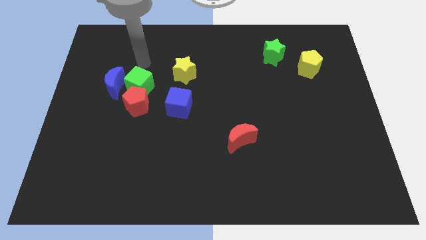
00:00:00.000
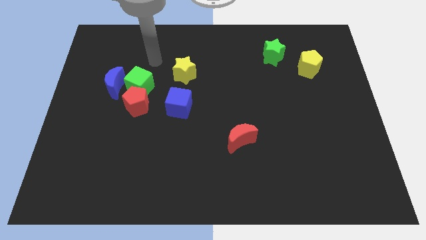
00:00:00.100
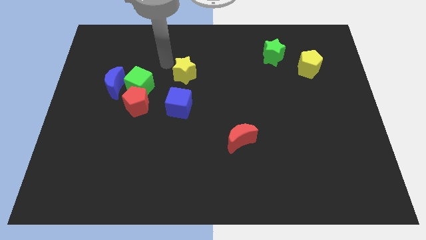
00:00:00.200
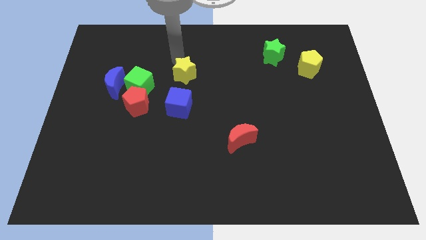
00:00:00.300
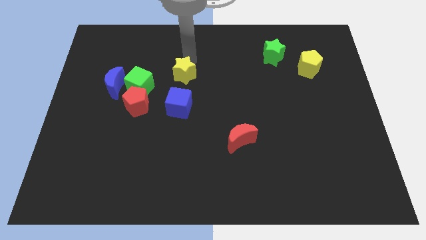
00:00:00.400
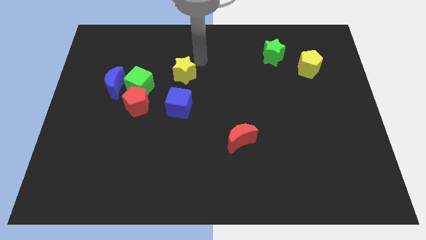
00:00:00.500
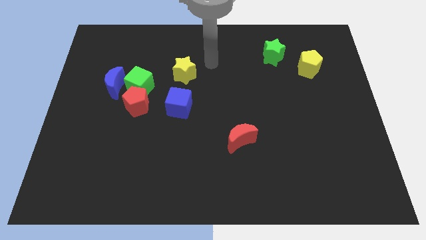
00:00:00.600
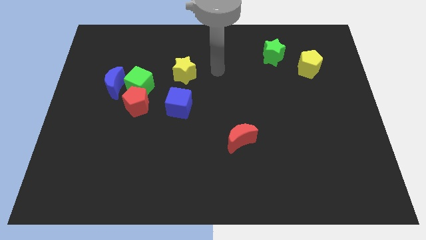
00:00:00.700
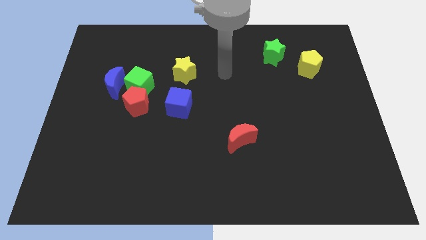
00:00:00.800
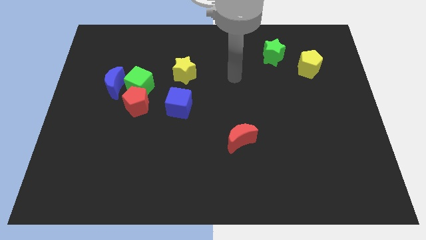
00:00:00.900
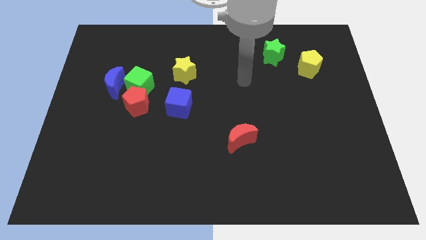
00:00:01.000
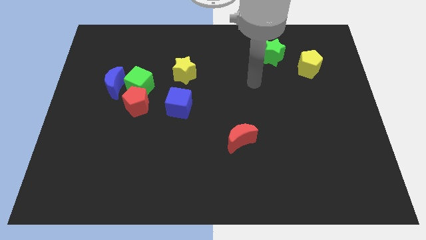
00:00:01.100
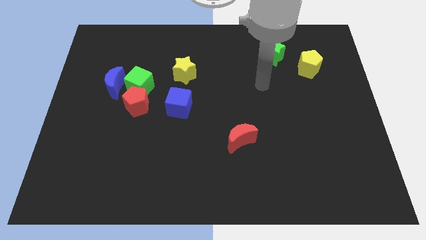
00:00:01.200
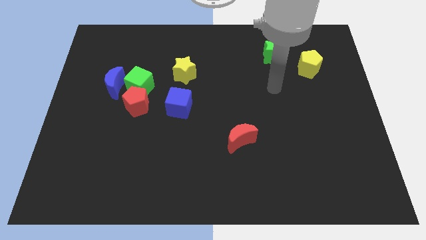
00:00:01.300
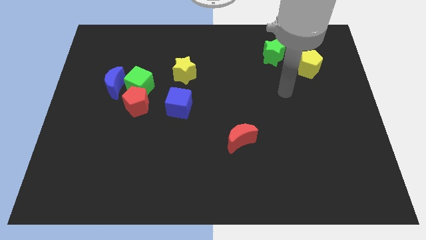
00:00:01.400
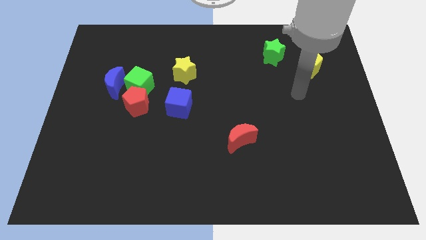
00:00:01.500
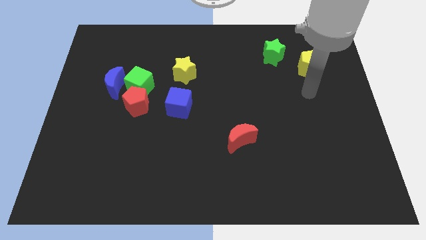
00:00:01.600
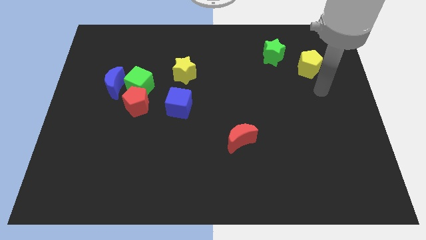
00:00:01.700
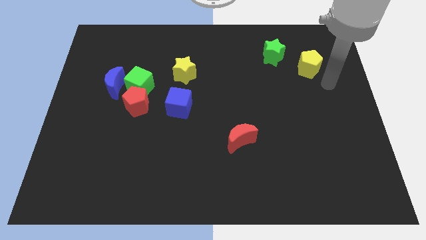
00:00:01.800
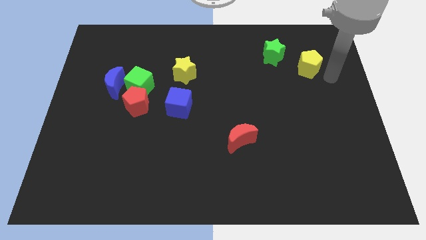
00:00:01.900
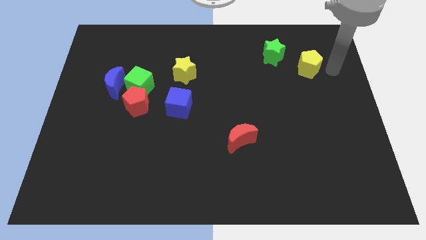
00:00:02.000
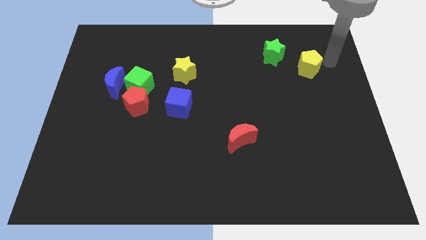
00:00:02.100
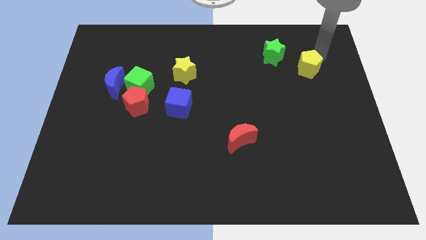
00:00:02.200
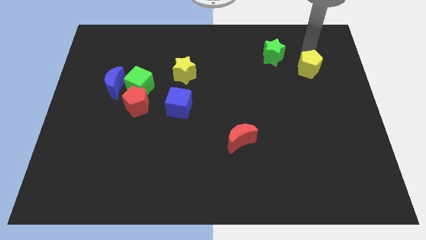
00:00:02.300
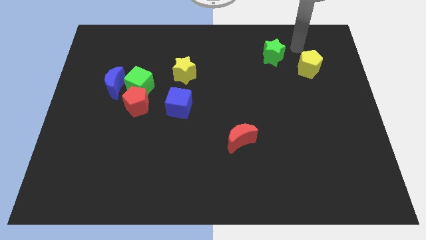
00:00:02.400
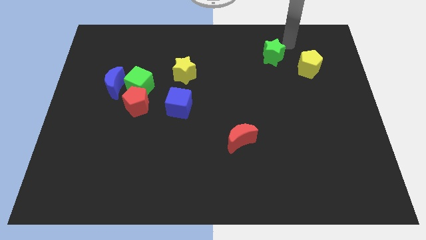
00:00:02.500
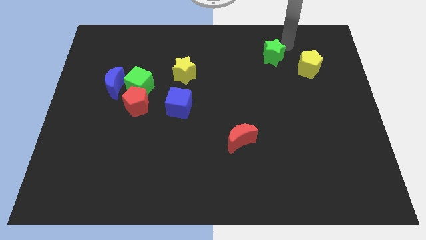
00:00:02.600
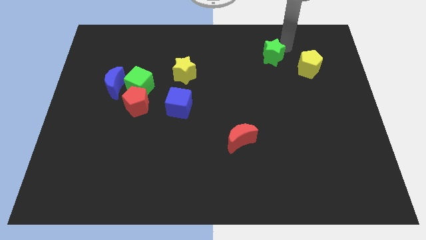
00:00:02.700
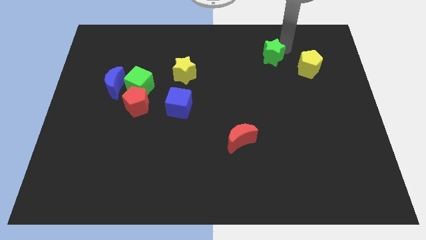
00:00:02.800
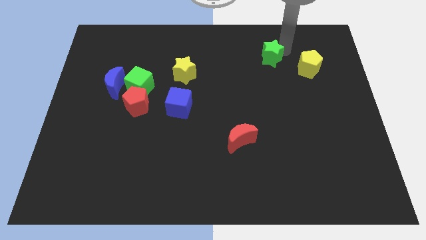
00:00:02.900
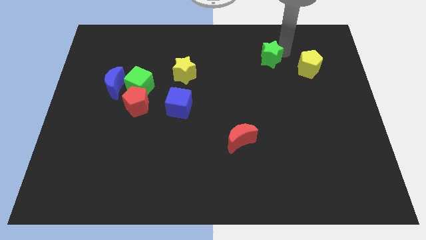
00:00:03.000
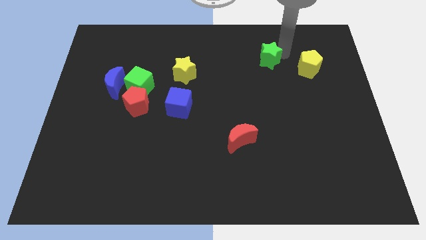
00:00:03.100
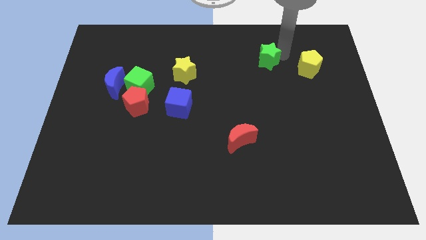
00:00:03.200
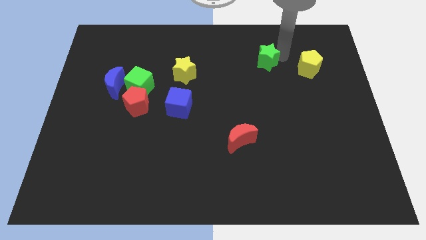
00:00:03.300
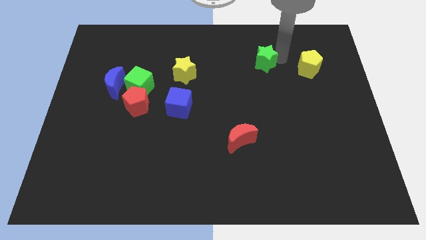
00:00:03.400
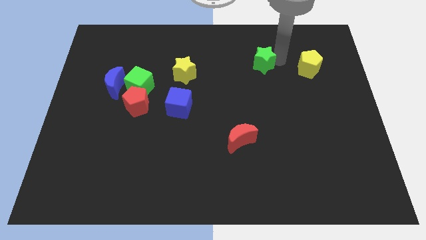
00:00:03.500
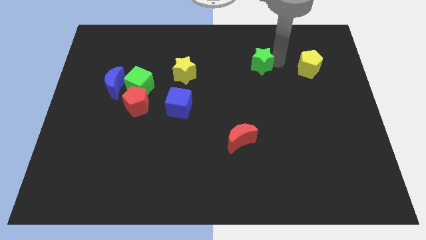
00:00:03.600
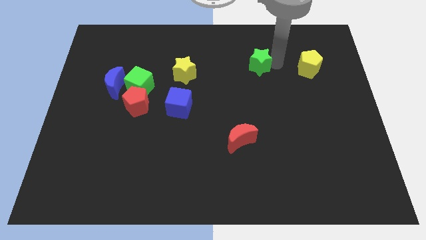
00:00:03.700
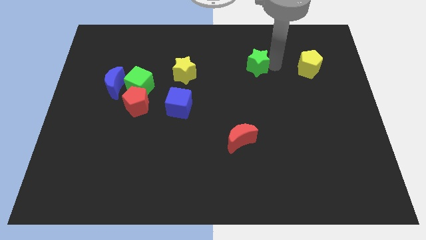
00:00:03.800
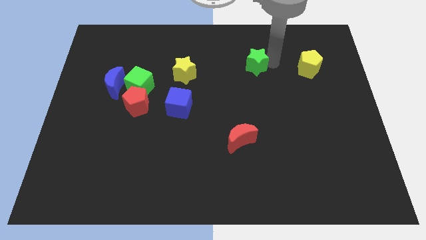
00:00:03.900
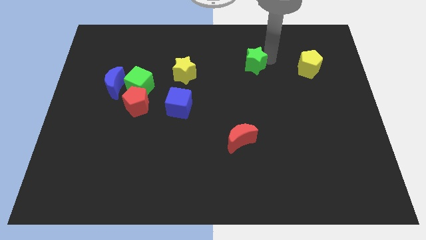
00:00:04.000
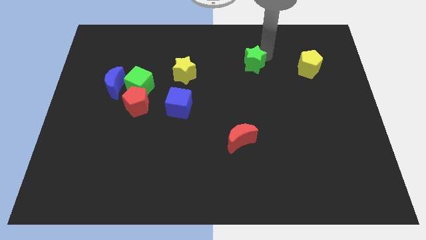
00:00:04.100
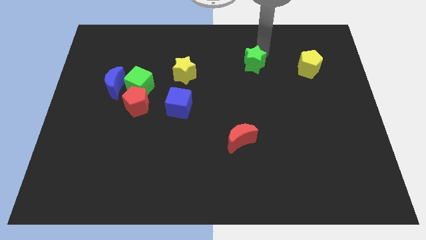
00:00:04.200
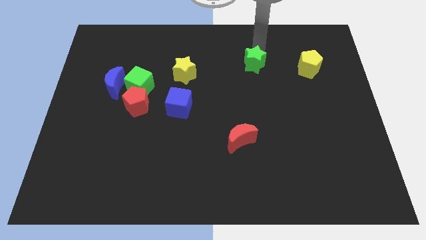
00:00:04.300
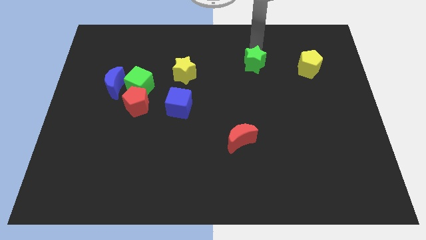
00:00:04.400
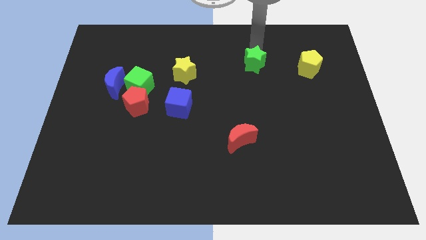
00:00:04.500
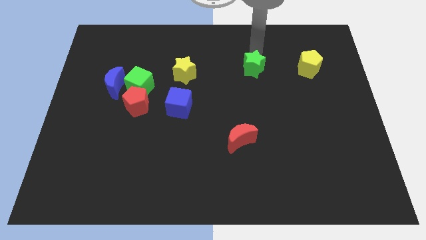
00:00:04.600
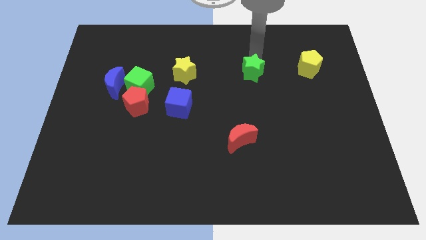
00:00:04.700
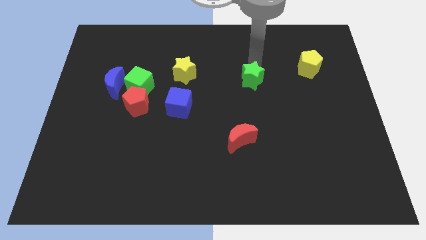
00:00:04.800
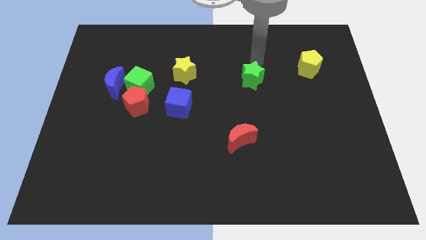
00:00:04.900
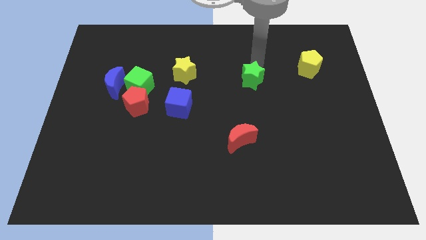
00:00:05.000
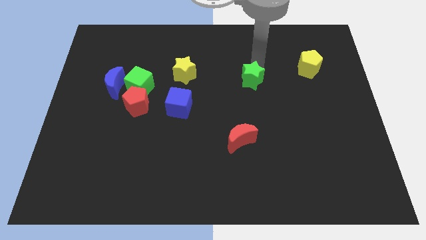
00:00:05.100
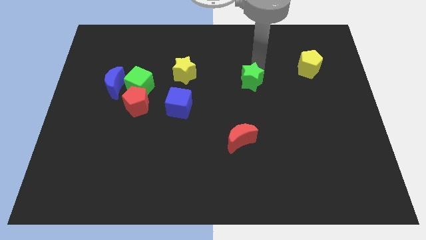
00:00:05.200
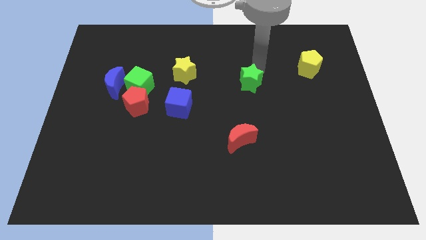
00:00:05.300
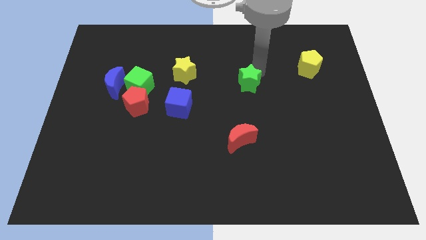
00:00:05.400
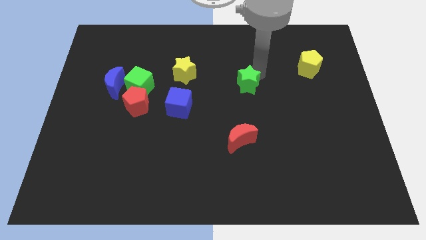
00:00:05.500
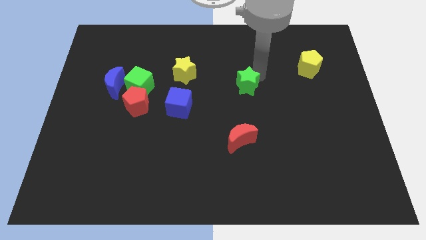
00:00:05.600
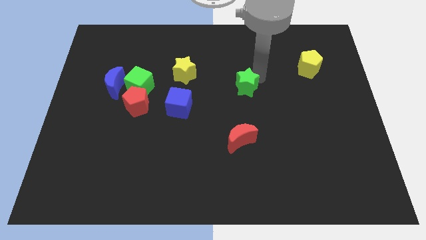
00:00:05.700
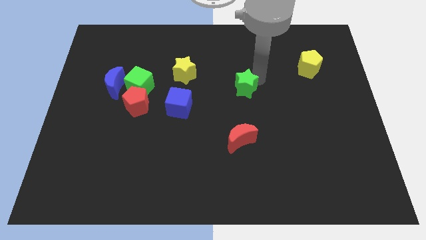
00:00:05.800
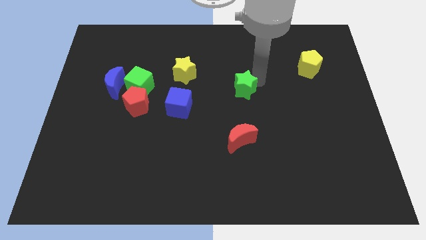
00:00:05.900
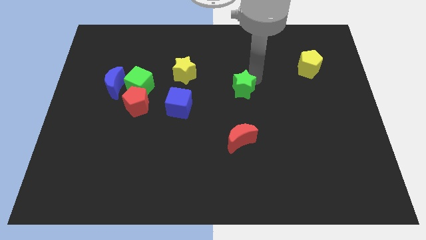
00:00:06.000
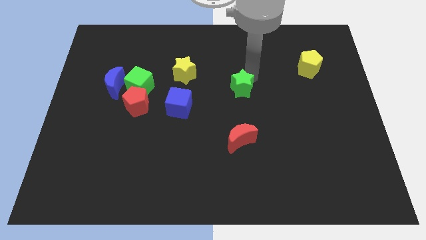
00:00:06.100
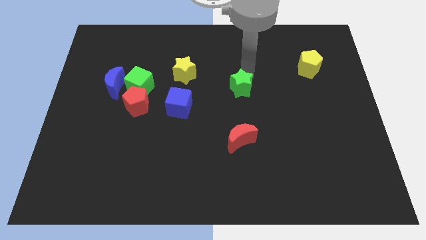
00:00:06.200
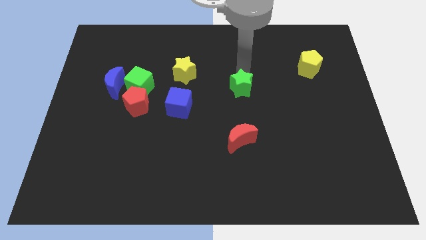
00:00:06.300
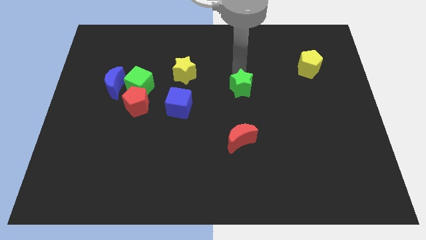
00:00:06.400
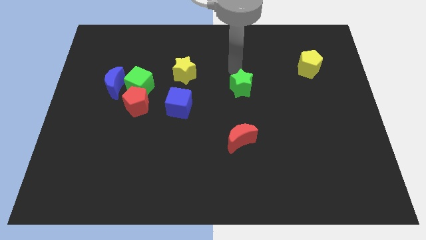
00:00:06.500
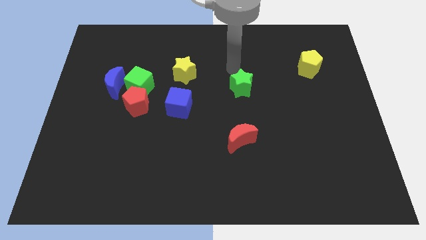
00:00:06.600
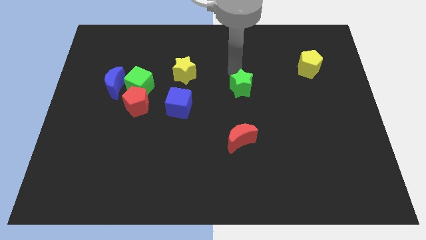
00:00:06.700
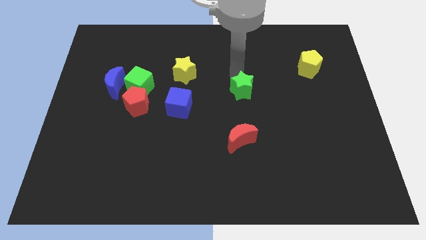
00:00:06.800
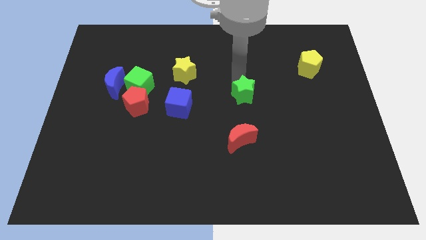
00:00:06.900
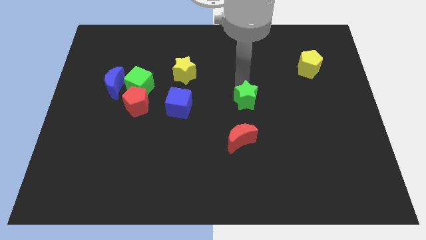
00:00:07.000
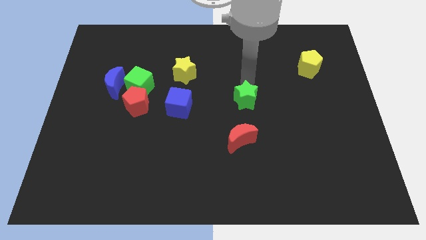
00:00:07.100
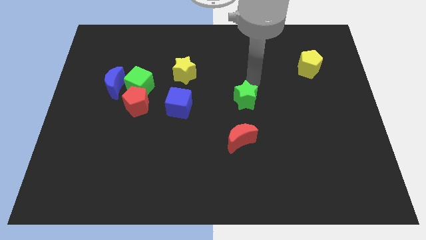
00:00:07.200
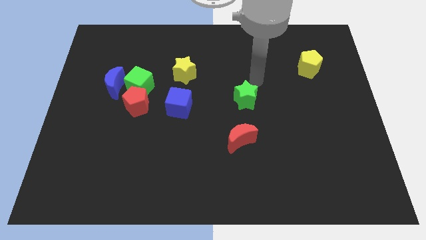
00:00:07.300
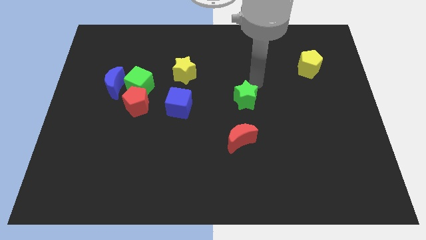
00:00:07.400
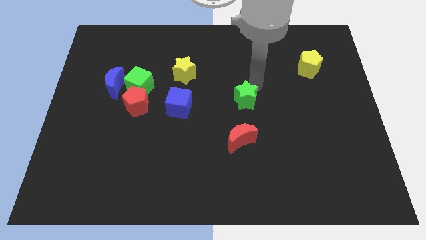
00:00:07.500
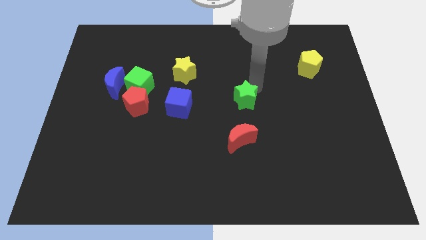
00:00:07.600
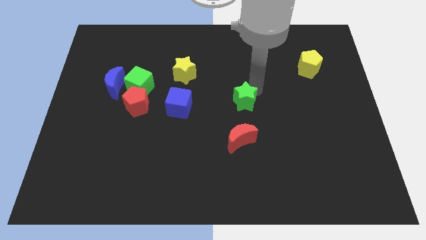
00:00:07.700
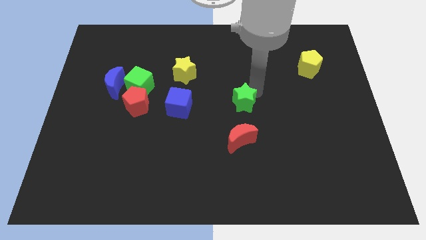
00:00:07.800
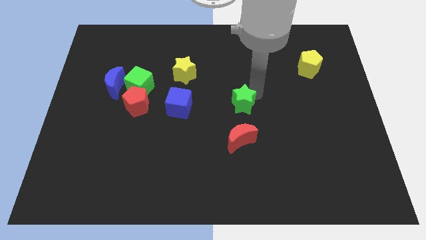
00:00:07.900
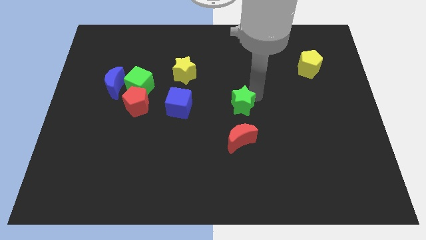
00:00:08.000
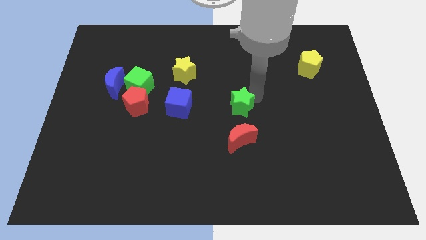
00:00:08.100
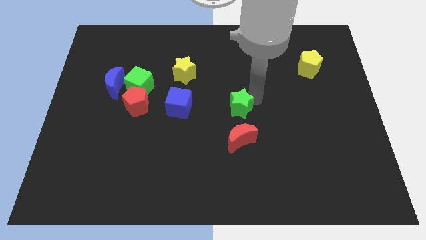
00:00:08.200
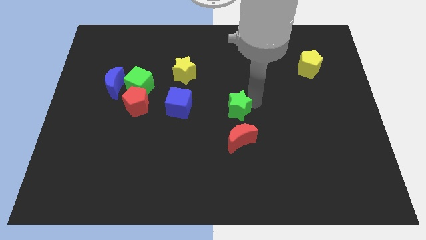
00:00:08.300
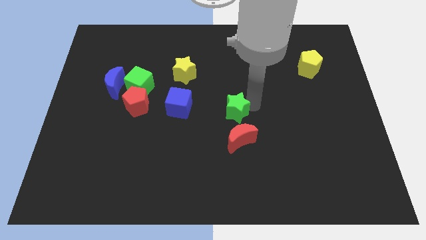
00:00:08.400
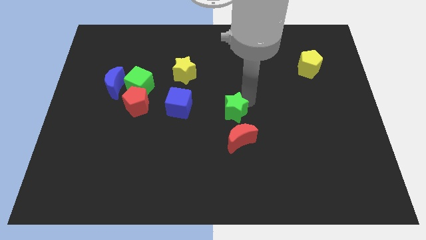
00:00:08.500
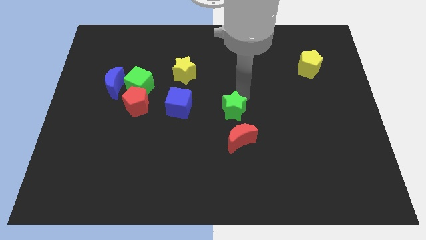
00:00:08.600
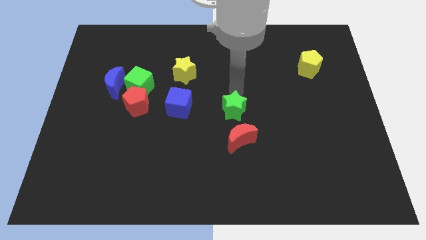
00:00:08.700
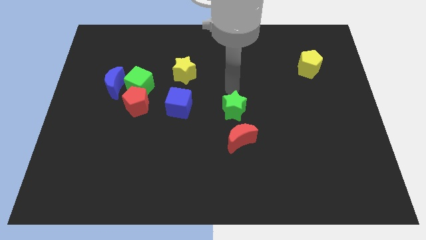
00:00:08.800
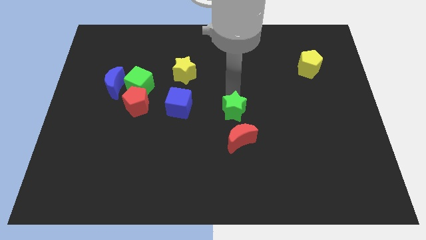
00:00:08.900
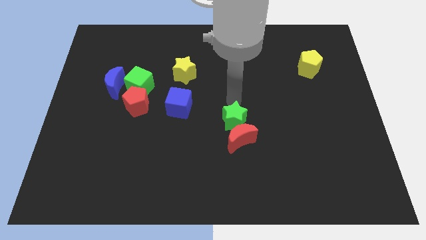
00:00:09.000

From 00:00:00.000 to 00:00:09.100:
push the green star to the red moon
